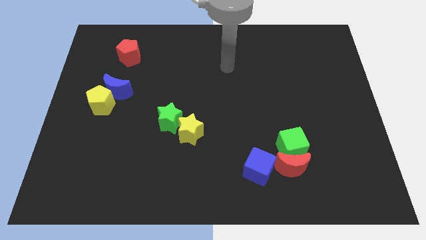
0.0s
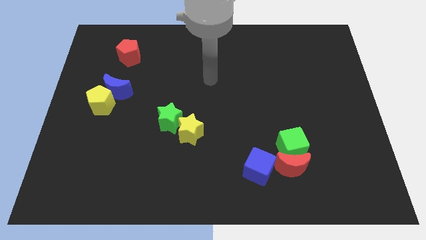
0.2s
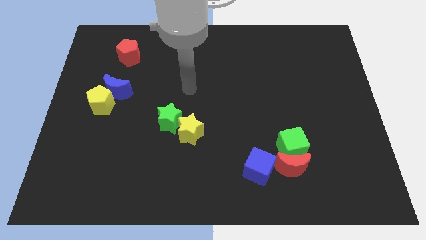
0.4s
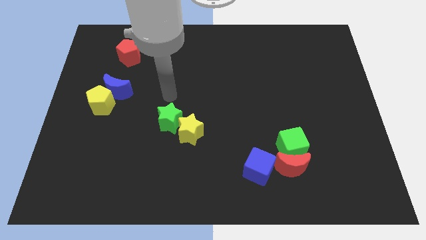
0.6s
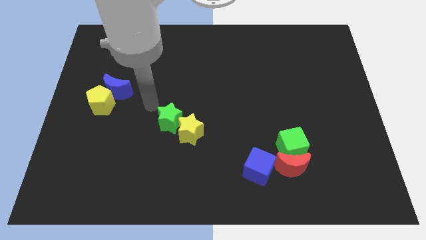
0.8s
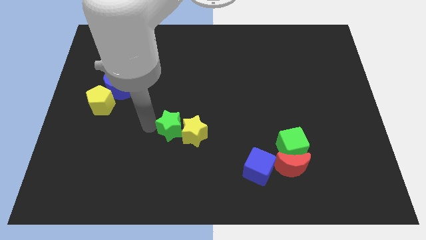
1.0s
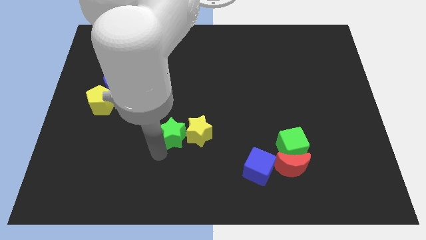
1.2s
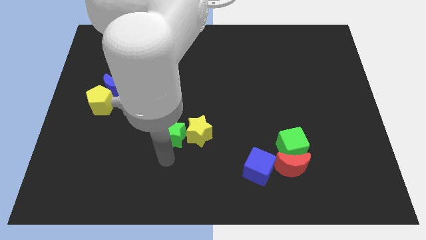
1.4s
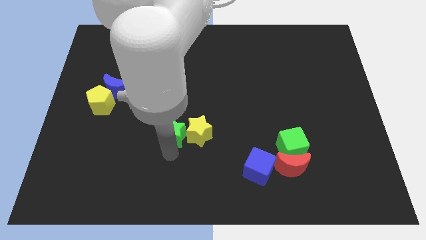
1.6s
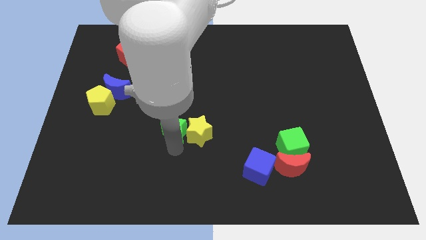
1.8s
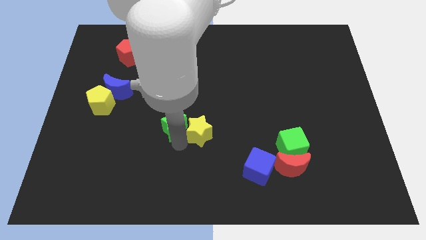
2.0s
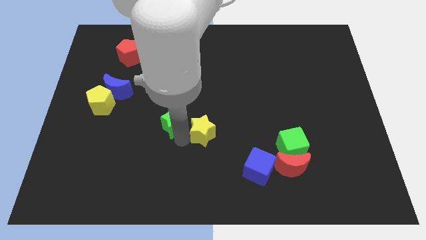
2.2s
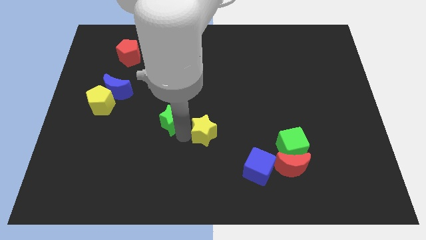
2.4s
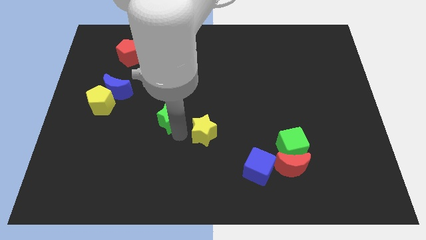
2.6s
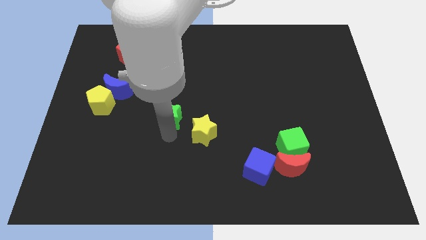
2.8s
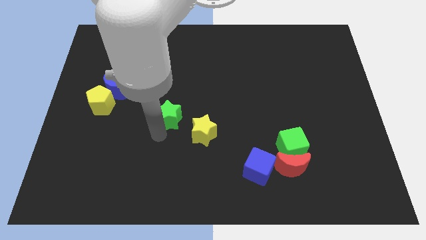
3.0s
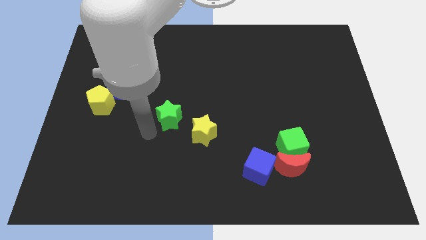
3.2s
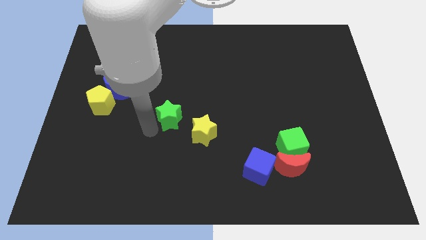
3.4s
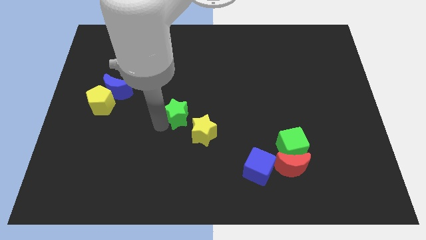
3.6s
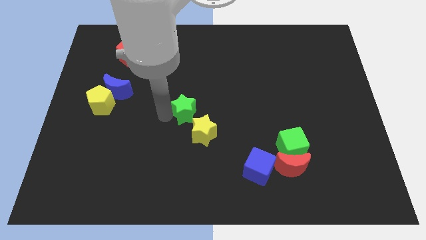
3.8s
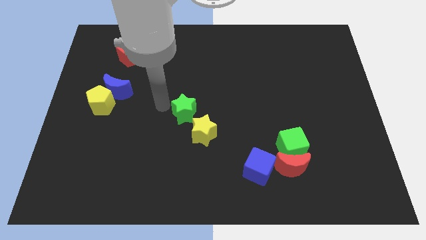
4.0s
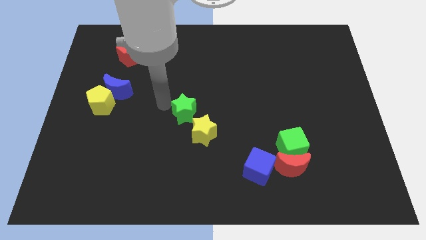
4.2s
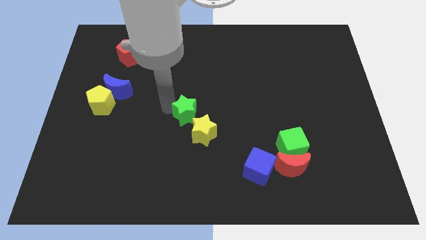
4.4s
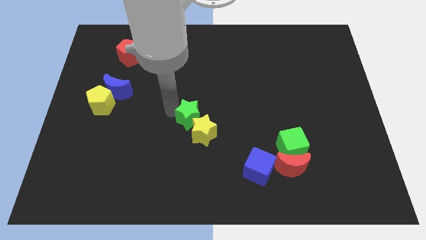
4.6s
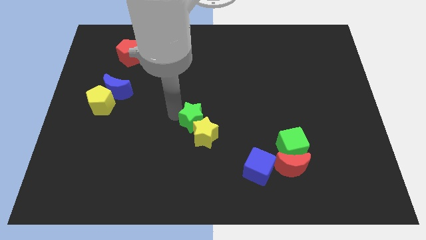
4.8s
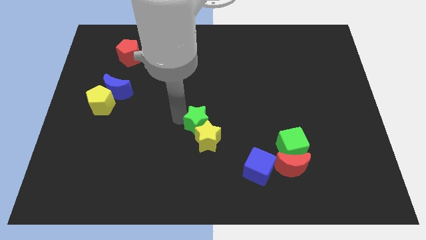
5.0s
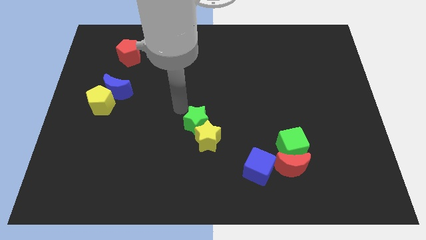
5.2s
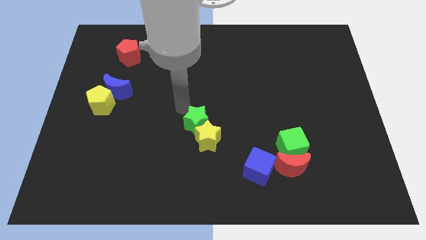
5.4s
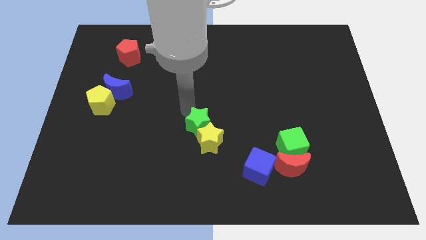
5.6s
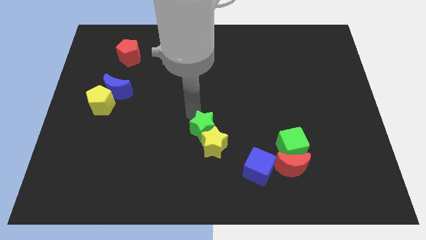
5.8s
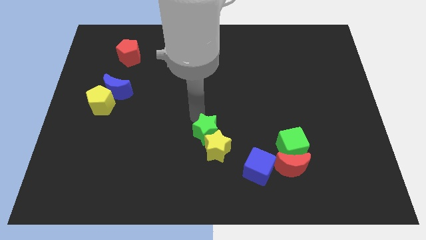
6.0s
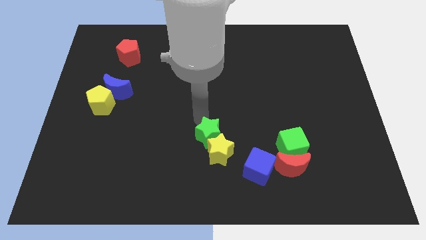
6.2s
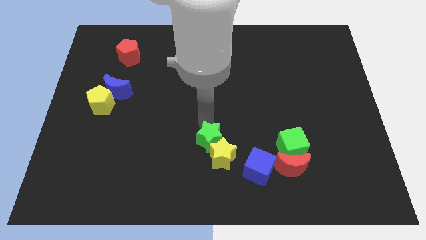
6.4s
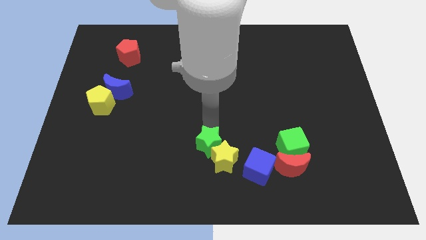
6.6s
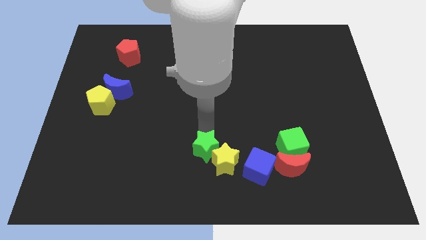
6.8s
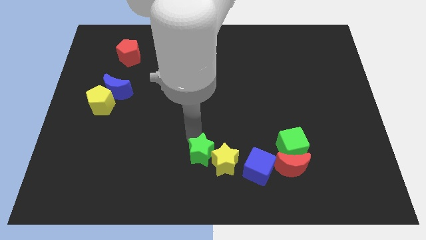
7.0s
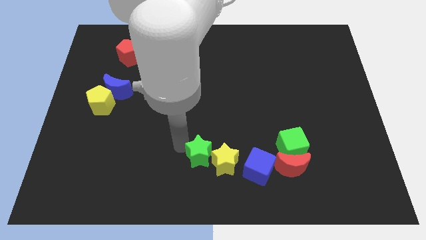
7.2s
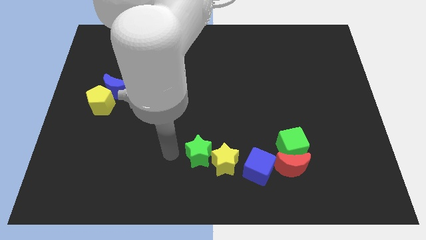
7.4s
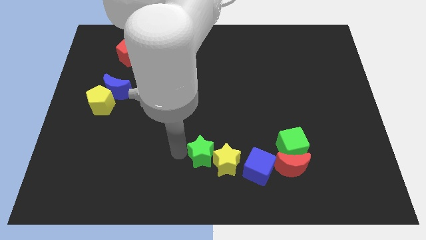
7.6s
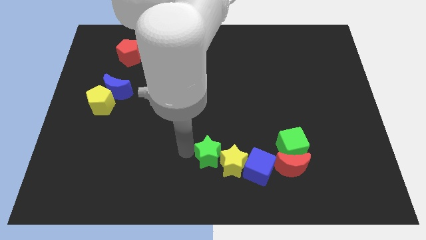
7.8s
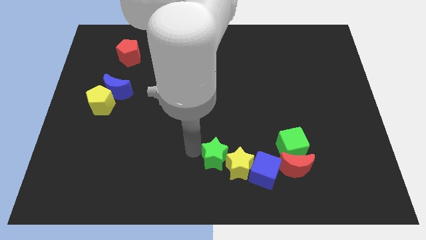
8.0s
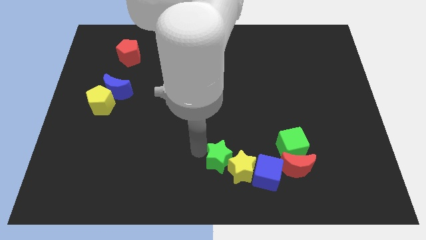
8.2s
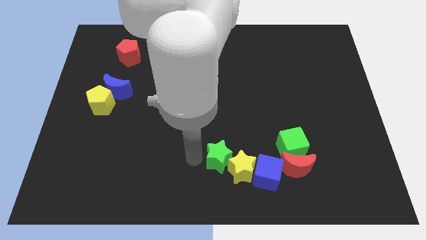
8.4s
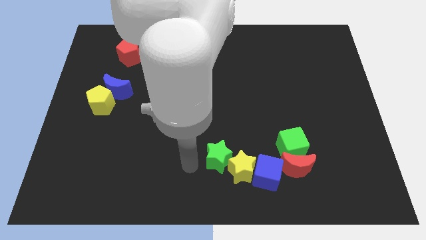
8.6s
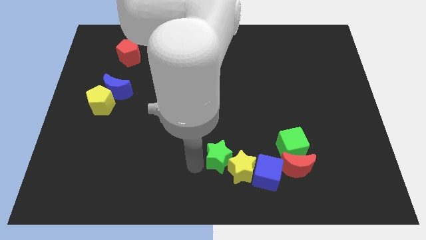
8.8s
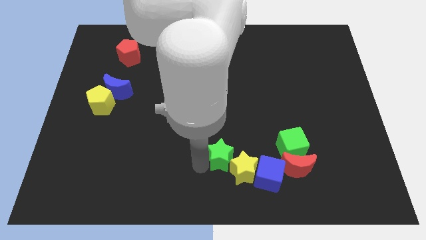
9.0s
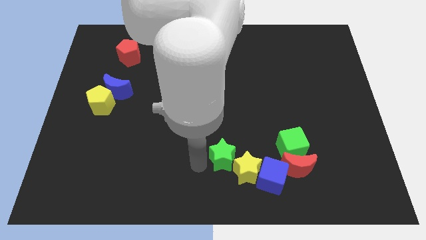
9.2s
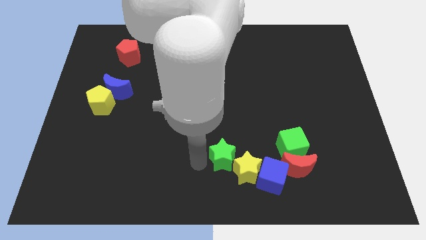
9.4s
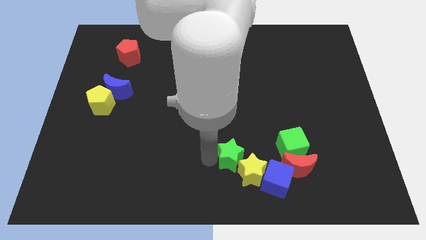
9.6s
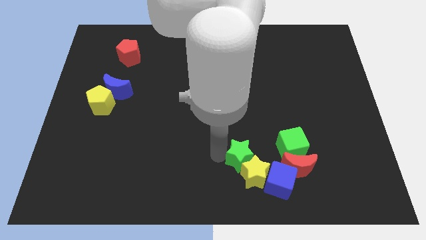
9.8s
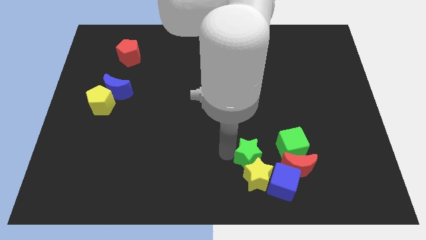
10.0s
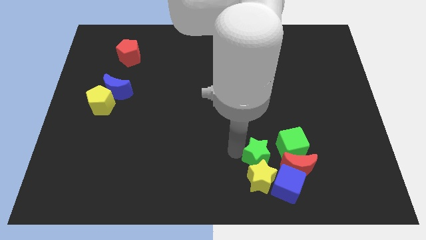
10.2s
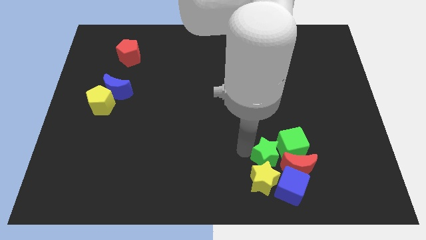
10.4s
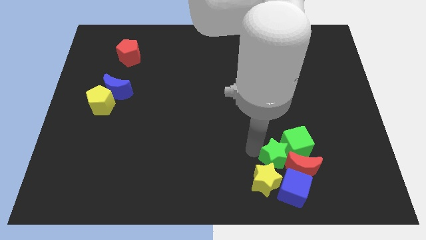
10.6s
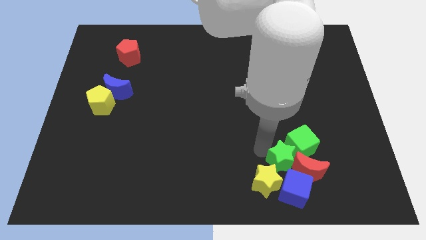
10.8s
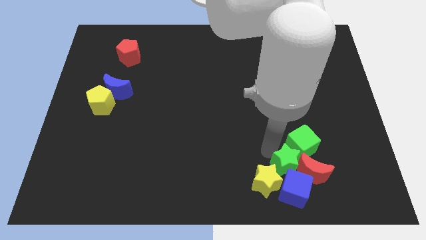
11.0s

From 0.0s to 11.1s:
slide the green star towards the blue cube

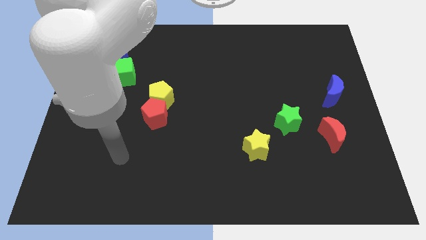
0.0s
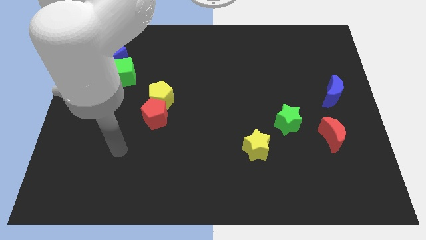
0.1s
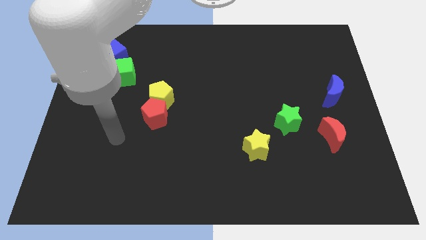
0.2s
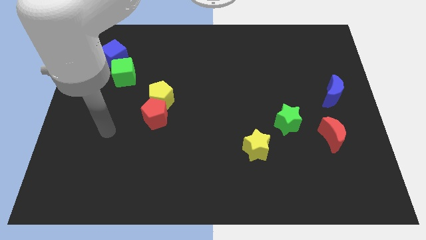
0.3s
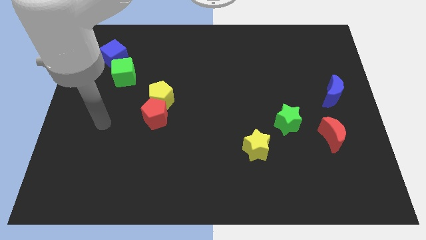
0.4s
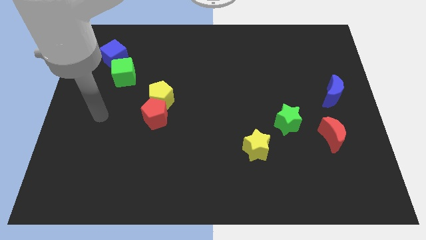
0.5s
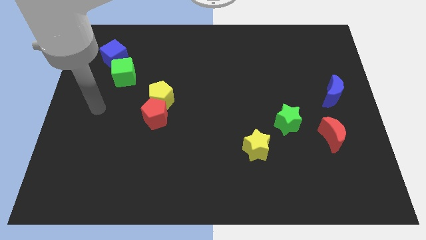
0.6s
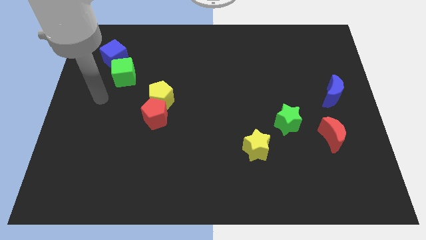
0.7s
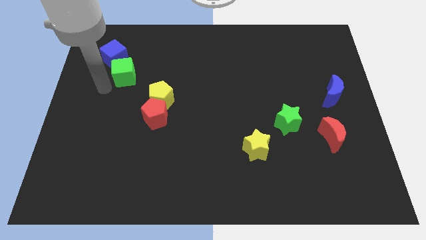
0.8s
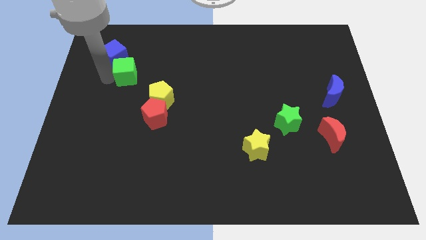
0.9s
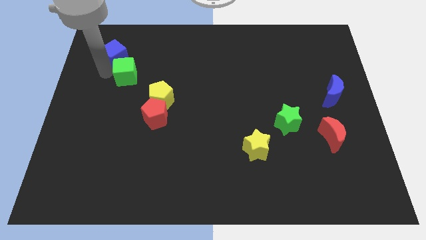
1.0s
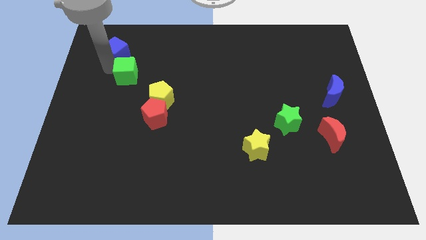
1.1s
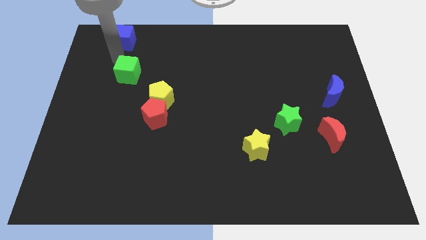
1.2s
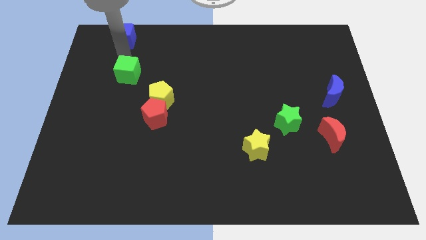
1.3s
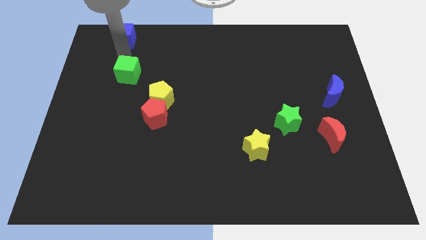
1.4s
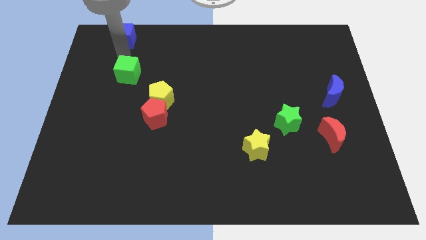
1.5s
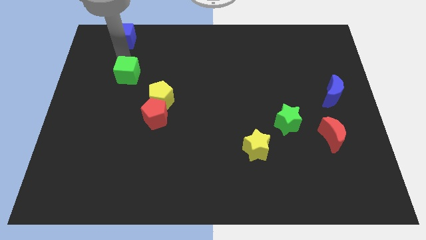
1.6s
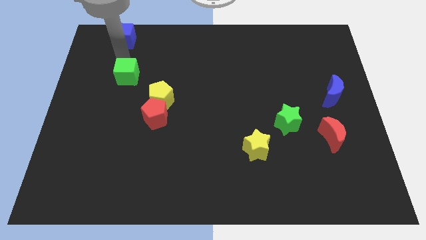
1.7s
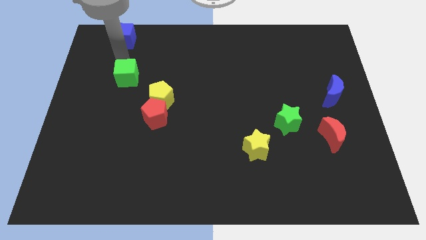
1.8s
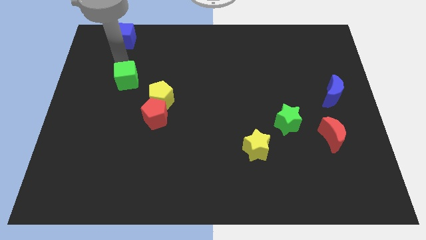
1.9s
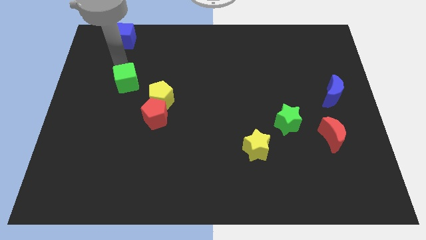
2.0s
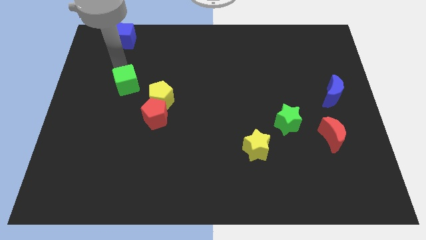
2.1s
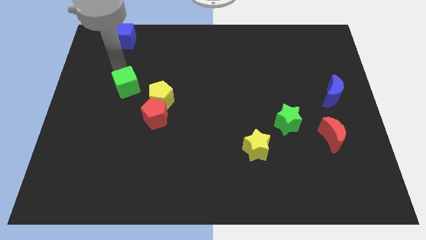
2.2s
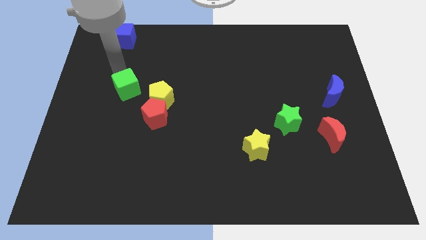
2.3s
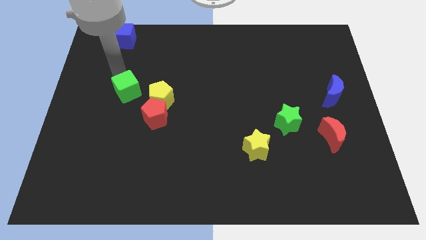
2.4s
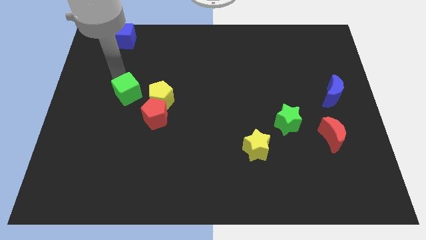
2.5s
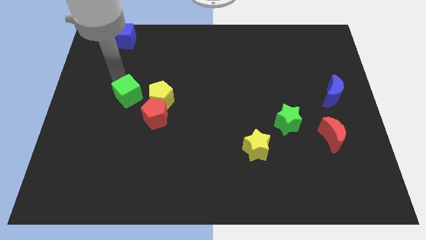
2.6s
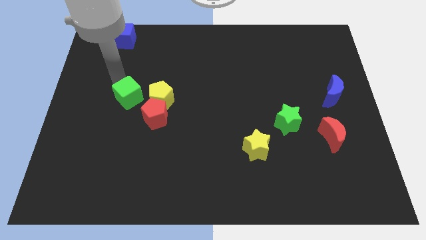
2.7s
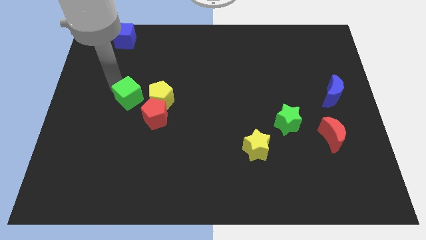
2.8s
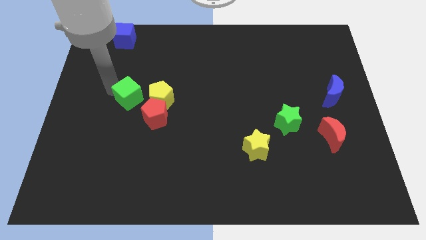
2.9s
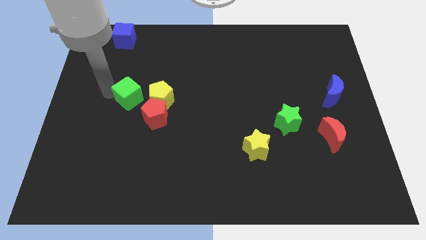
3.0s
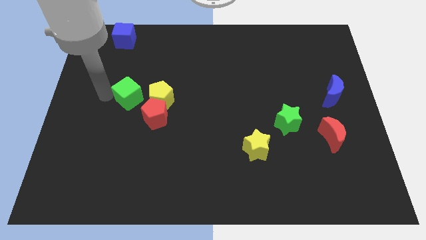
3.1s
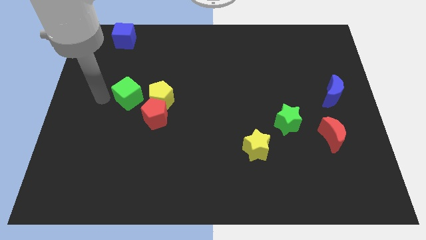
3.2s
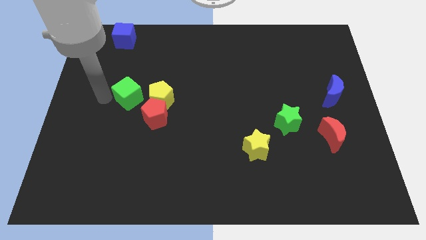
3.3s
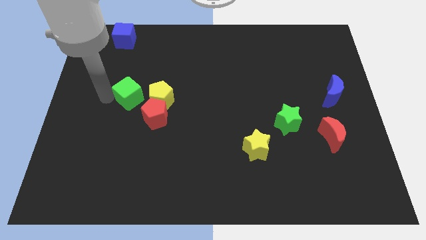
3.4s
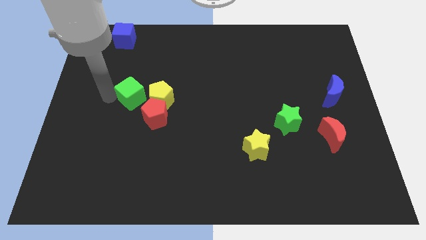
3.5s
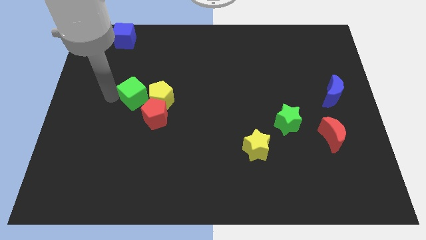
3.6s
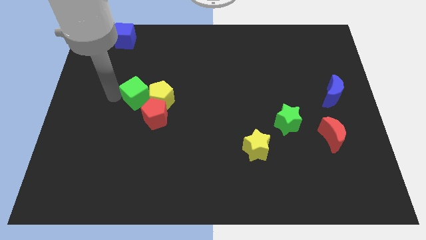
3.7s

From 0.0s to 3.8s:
slide the green cube close to the yellow pentagon
